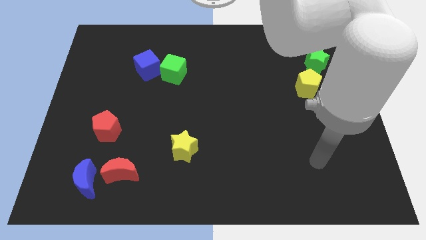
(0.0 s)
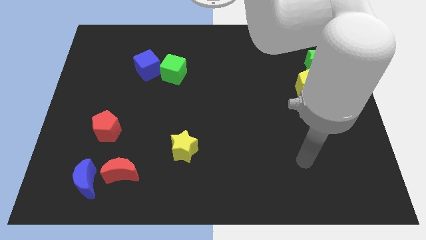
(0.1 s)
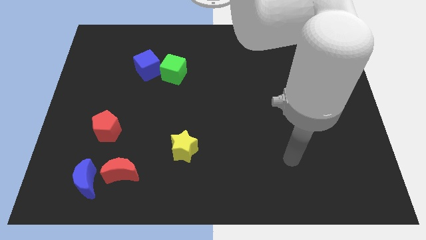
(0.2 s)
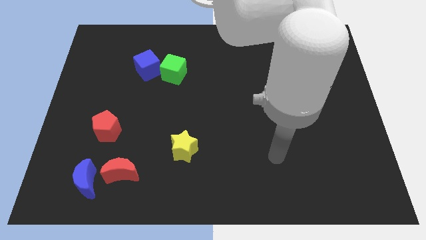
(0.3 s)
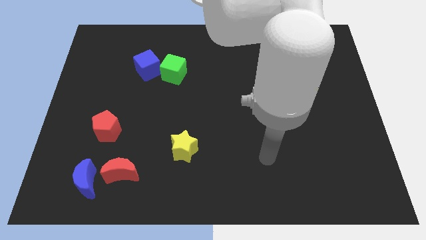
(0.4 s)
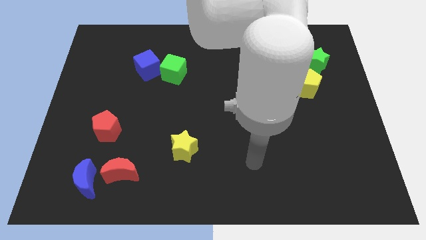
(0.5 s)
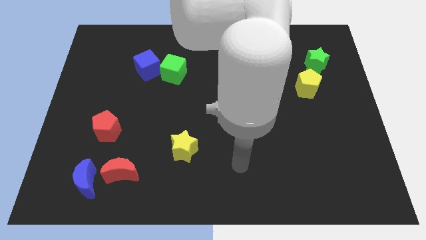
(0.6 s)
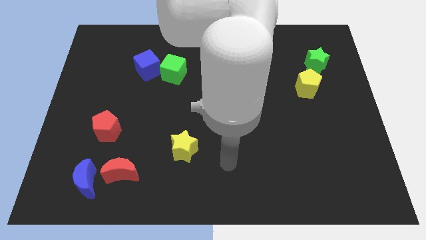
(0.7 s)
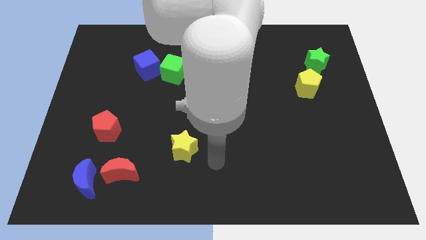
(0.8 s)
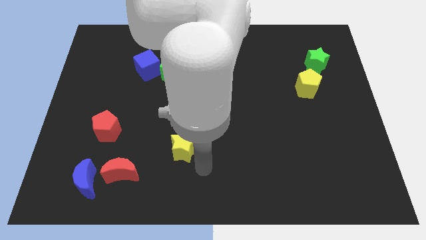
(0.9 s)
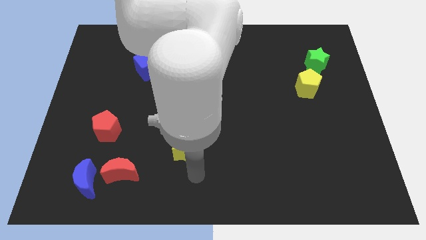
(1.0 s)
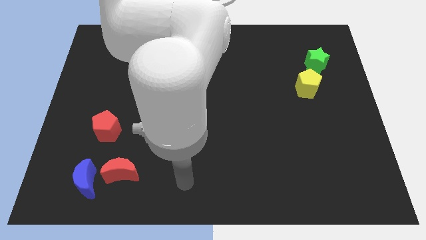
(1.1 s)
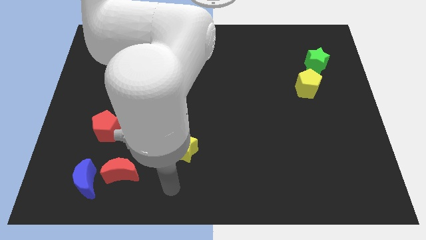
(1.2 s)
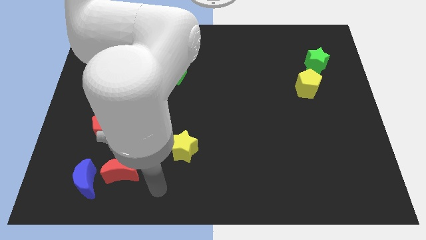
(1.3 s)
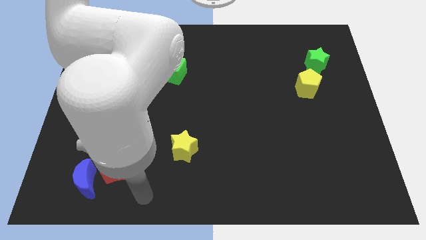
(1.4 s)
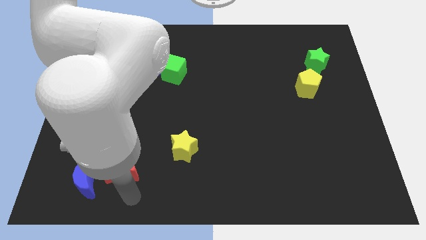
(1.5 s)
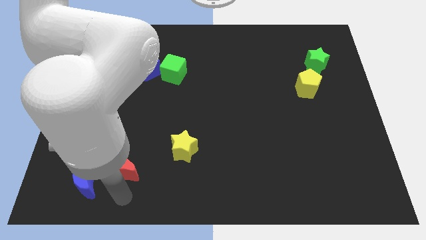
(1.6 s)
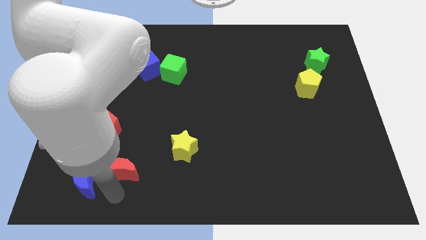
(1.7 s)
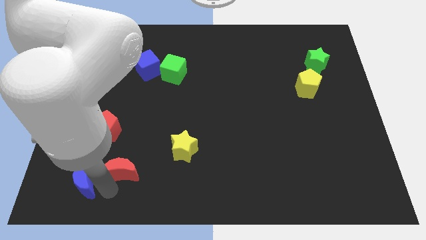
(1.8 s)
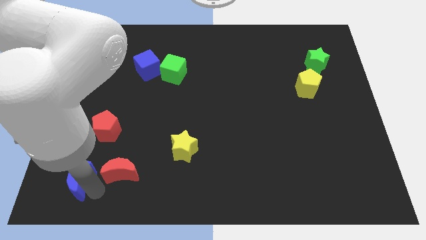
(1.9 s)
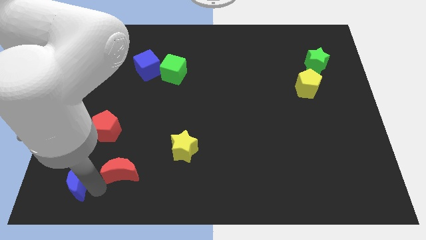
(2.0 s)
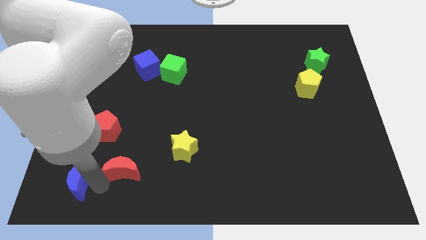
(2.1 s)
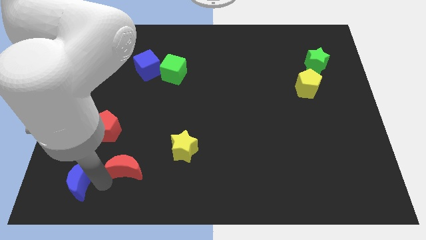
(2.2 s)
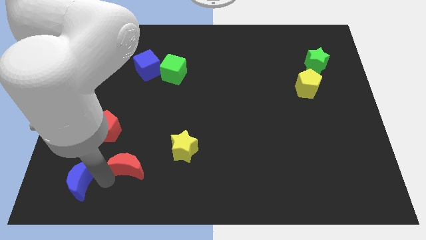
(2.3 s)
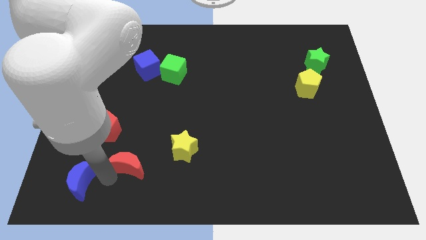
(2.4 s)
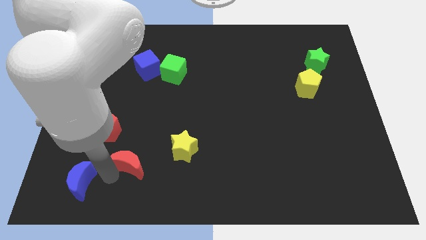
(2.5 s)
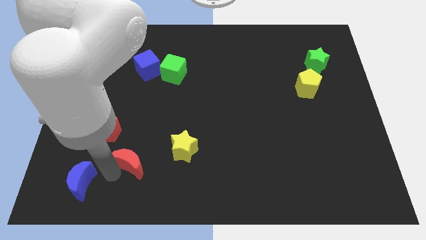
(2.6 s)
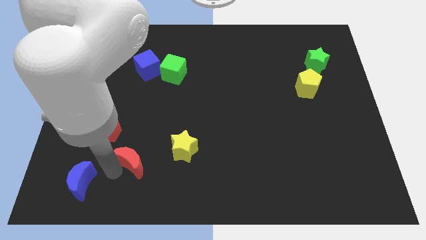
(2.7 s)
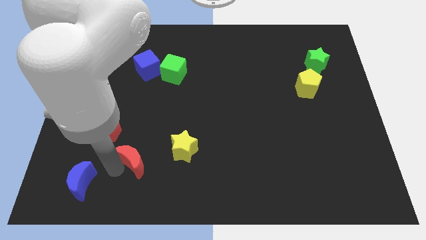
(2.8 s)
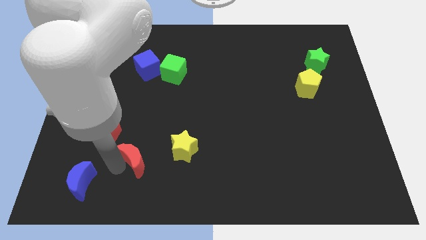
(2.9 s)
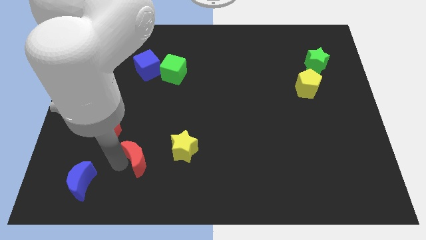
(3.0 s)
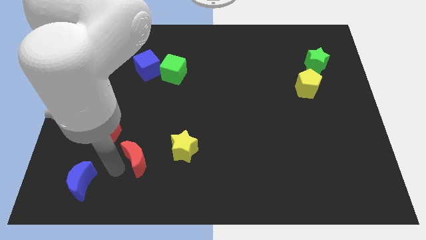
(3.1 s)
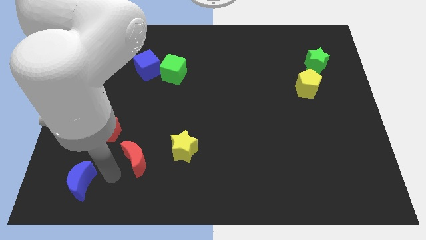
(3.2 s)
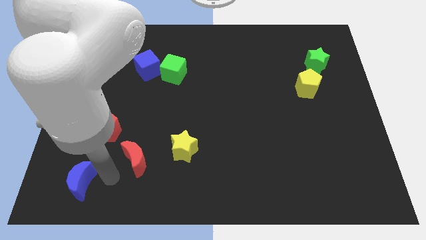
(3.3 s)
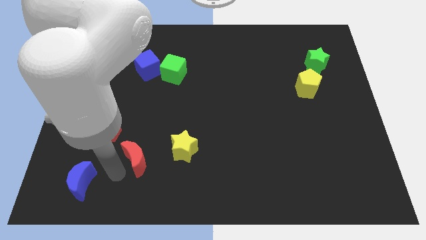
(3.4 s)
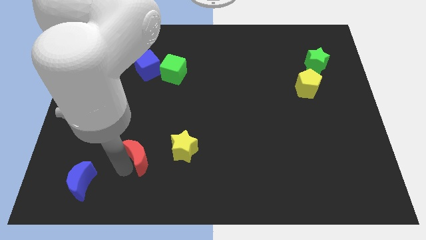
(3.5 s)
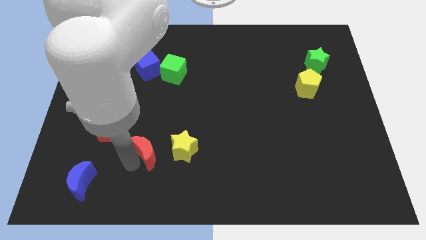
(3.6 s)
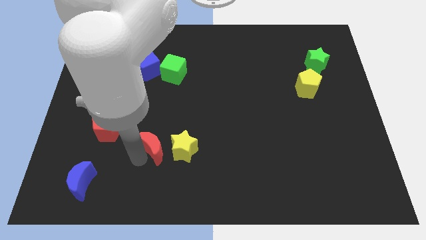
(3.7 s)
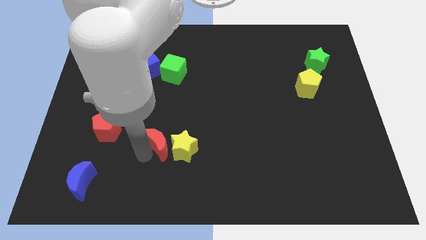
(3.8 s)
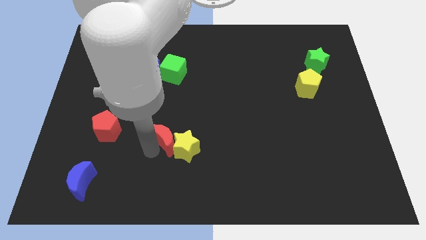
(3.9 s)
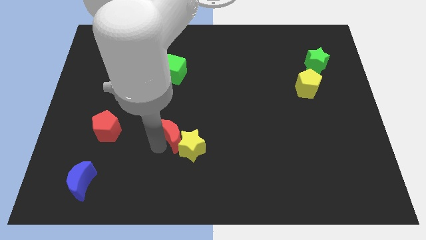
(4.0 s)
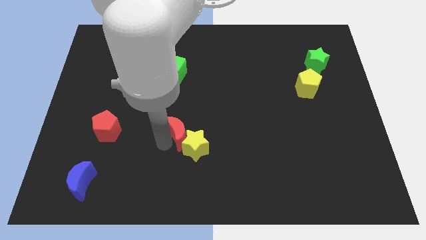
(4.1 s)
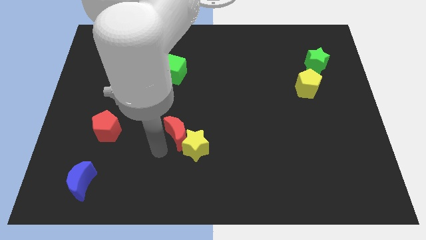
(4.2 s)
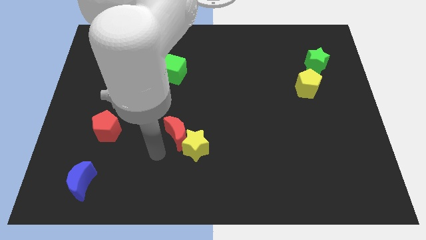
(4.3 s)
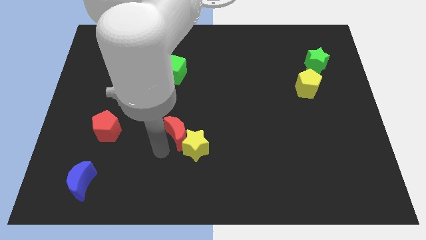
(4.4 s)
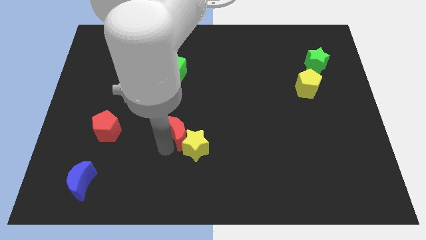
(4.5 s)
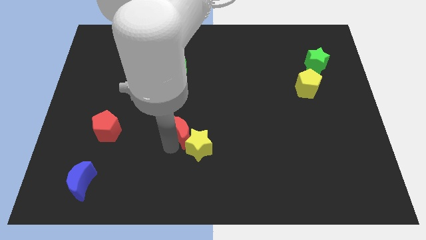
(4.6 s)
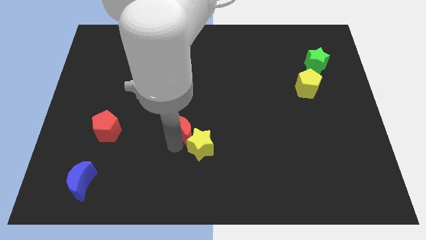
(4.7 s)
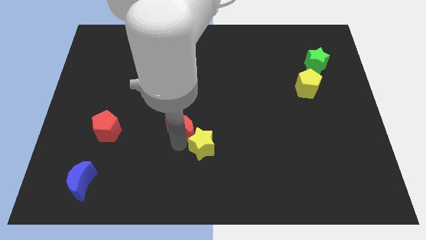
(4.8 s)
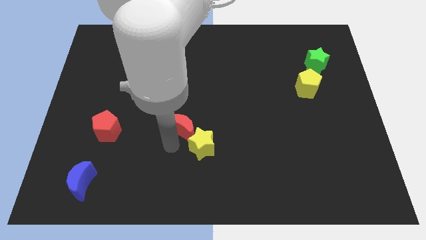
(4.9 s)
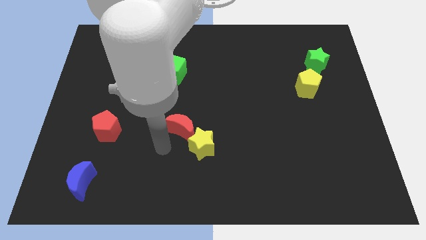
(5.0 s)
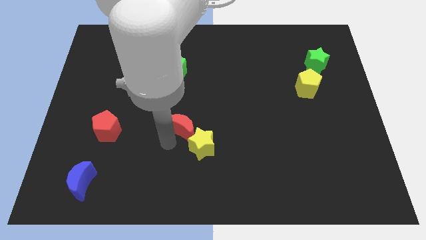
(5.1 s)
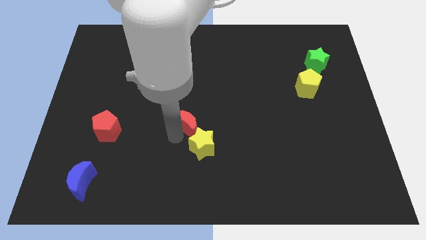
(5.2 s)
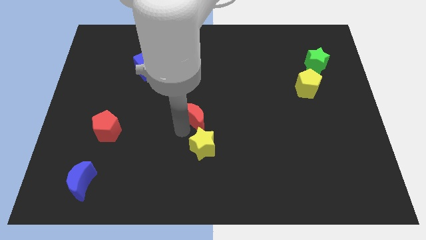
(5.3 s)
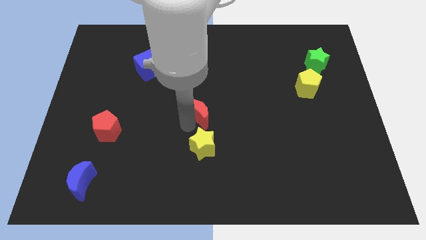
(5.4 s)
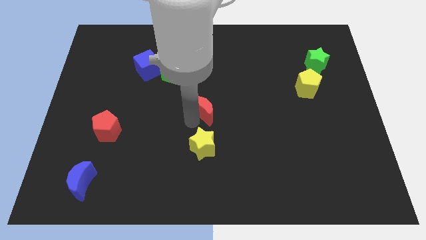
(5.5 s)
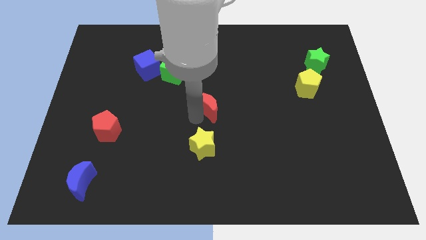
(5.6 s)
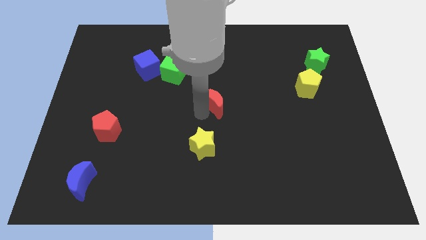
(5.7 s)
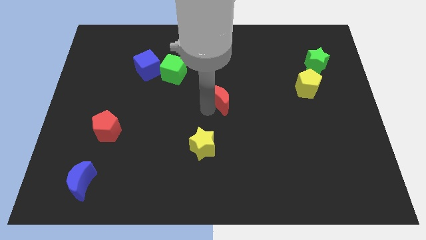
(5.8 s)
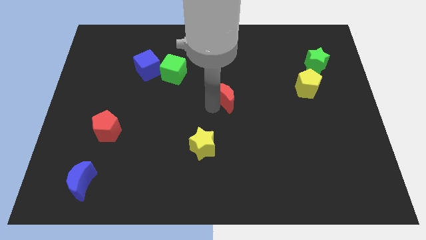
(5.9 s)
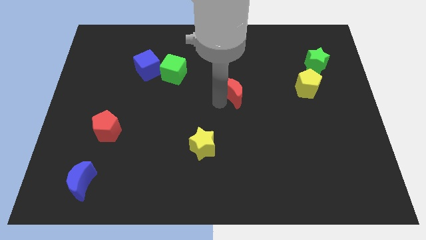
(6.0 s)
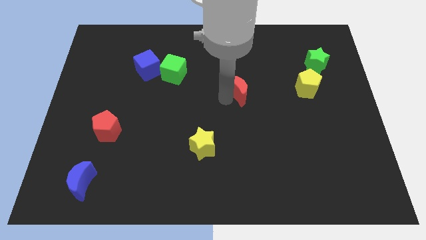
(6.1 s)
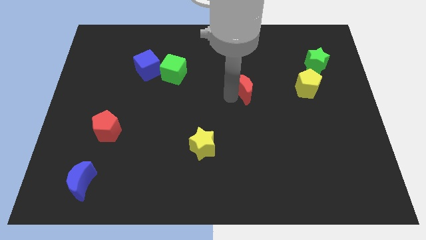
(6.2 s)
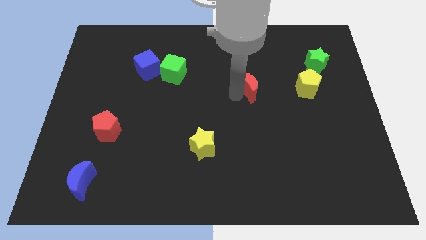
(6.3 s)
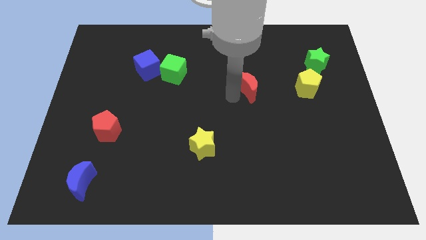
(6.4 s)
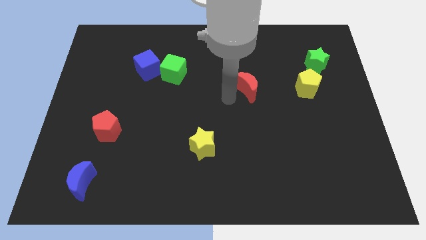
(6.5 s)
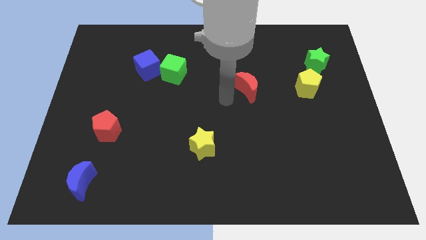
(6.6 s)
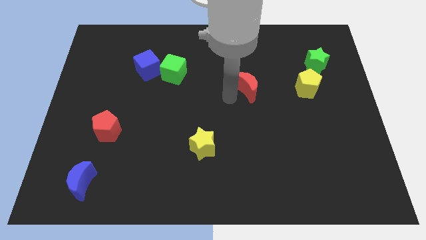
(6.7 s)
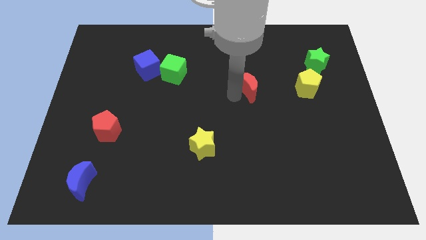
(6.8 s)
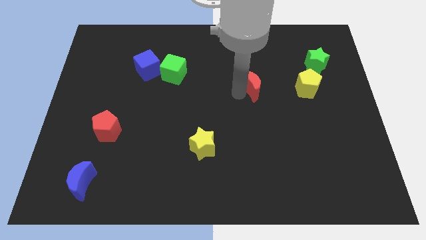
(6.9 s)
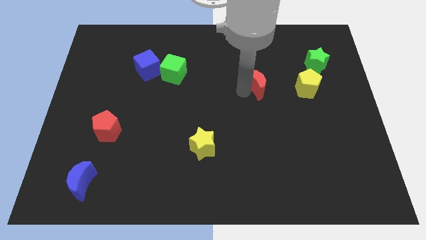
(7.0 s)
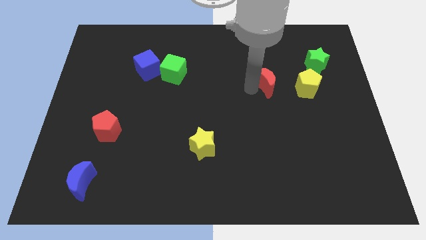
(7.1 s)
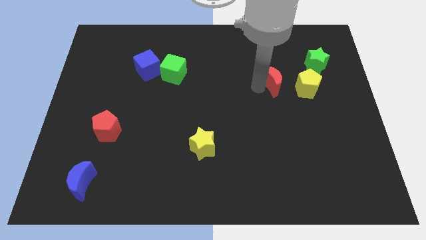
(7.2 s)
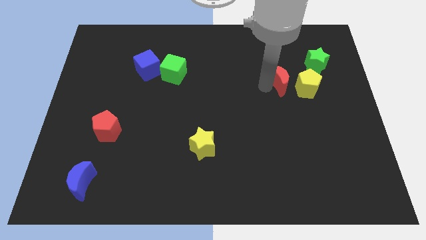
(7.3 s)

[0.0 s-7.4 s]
push the red moon to the top left side of the yellow pentagon

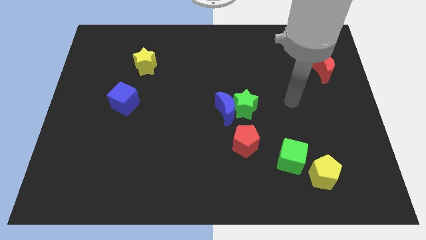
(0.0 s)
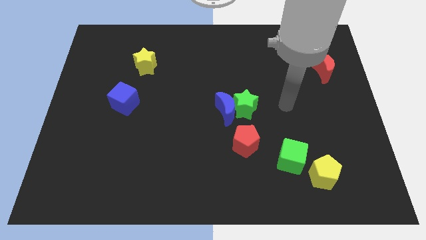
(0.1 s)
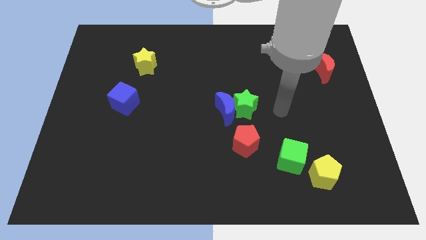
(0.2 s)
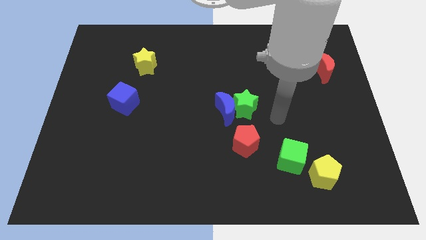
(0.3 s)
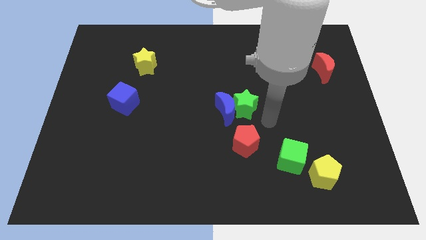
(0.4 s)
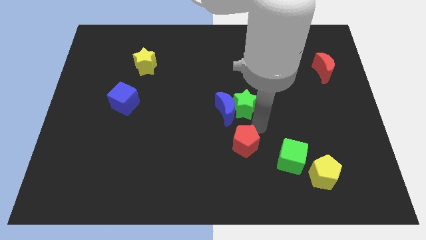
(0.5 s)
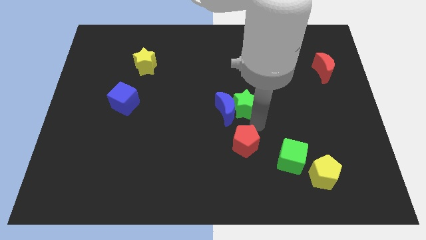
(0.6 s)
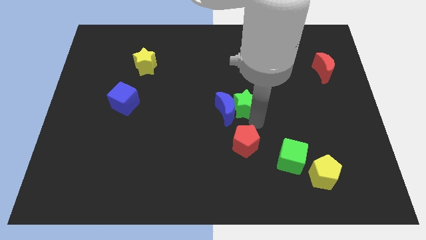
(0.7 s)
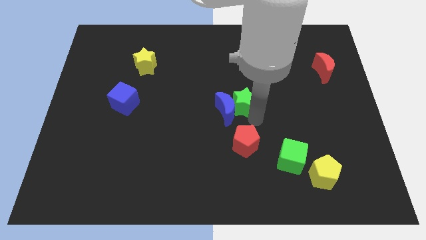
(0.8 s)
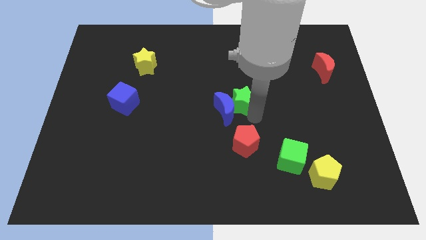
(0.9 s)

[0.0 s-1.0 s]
slide the green star to the top of the blue moon
